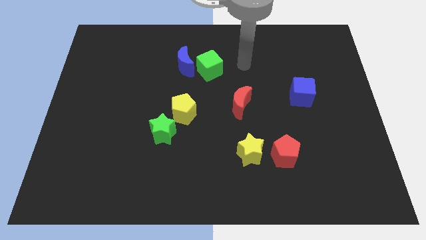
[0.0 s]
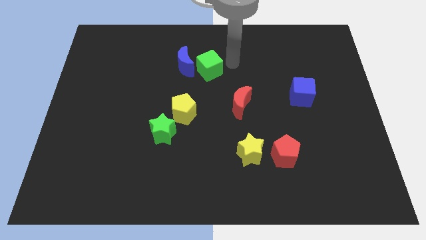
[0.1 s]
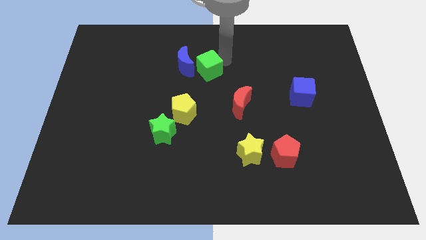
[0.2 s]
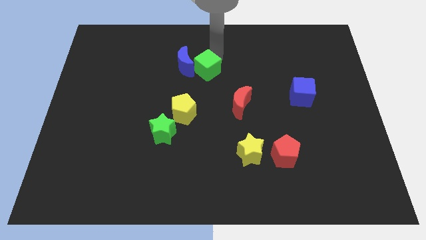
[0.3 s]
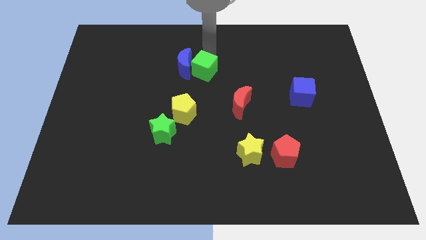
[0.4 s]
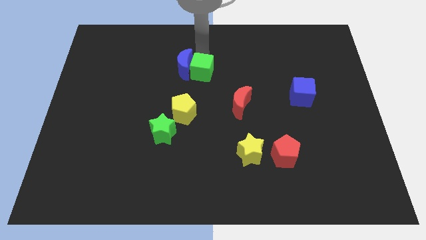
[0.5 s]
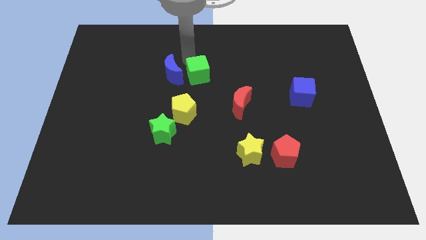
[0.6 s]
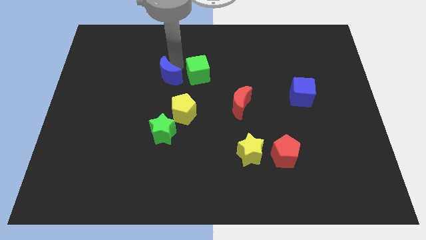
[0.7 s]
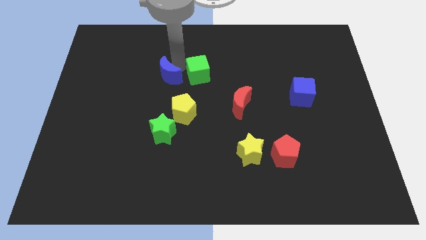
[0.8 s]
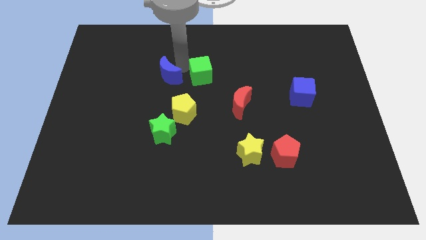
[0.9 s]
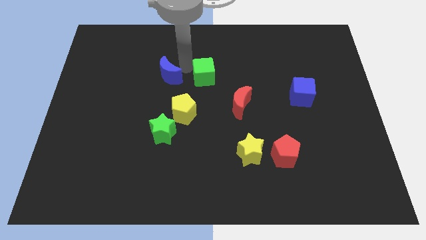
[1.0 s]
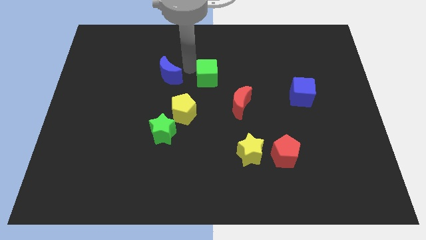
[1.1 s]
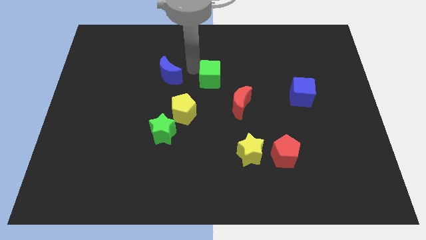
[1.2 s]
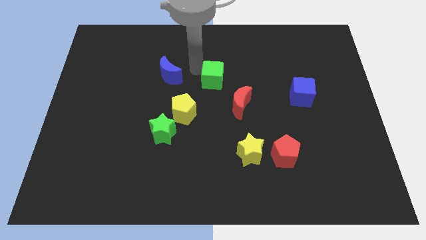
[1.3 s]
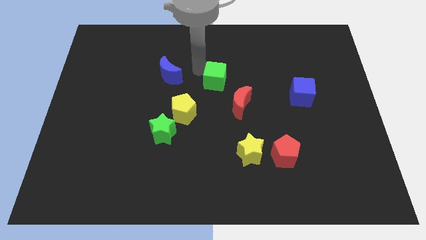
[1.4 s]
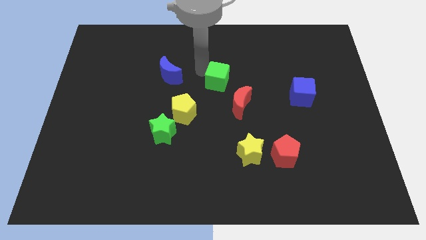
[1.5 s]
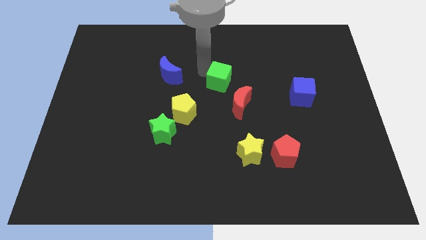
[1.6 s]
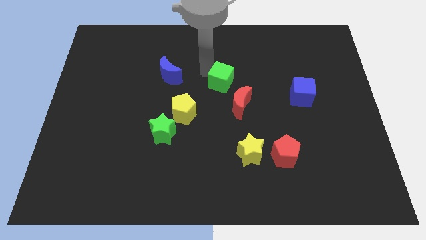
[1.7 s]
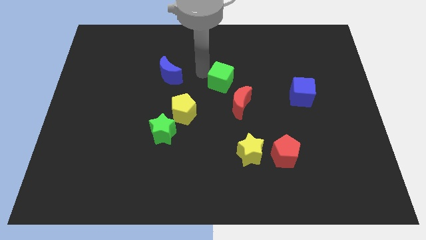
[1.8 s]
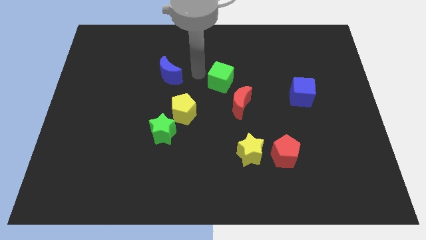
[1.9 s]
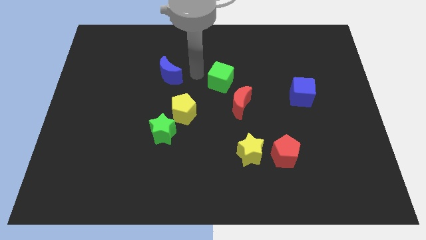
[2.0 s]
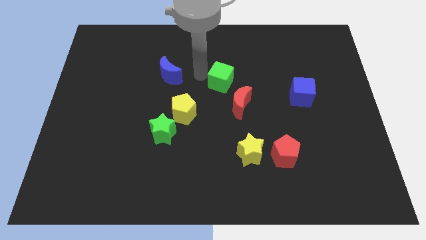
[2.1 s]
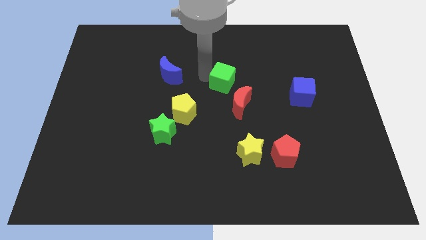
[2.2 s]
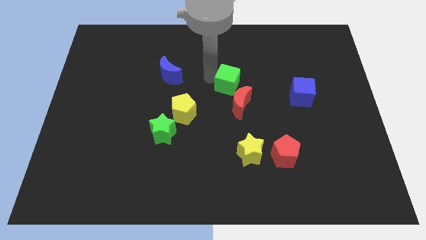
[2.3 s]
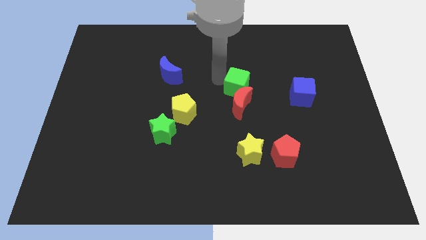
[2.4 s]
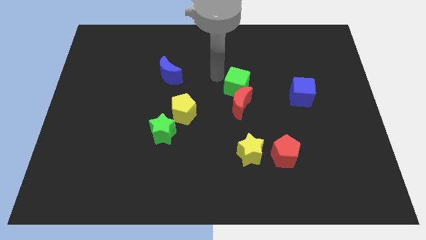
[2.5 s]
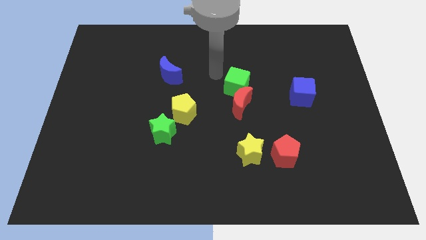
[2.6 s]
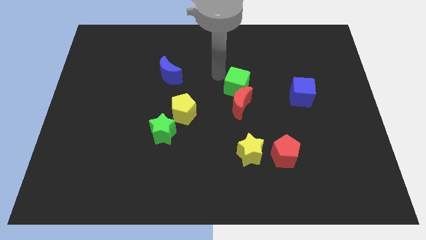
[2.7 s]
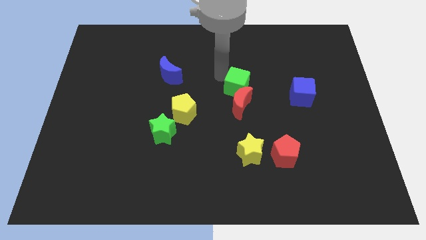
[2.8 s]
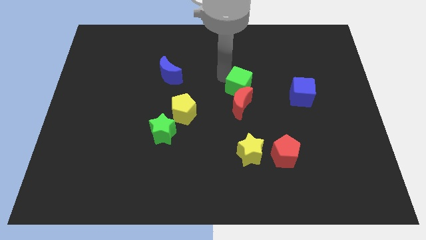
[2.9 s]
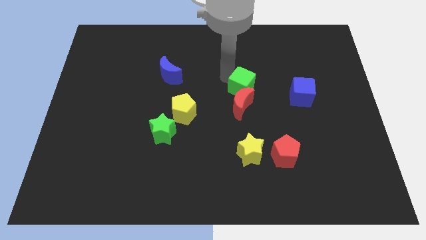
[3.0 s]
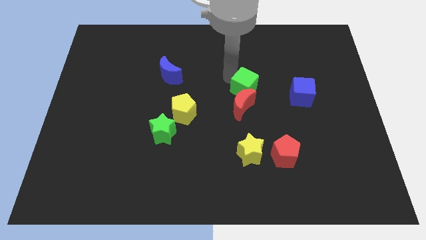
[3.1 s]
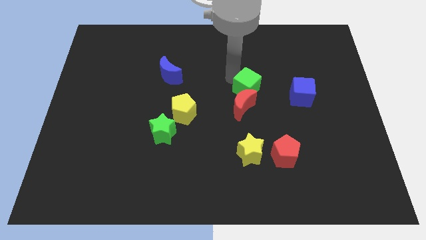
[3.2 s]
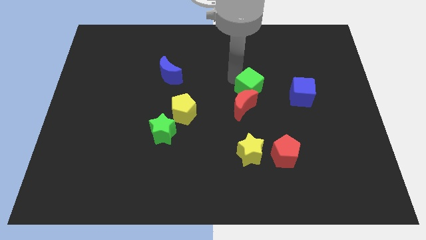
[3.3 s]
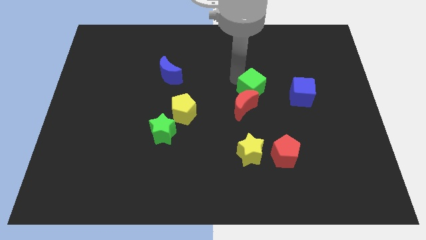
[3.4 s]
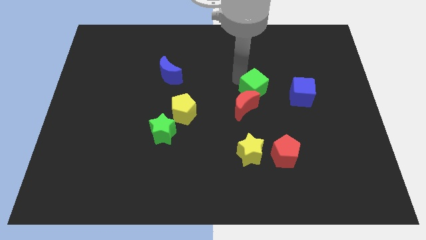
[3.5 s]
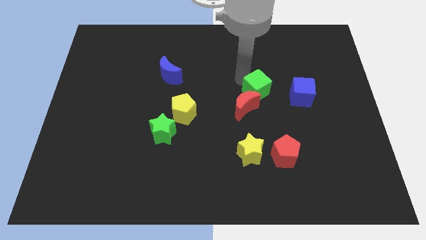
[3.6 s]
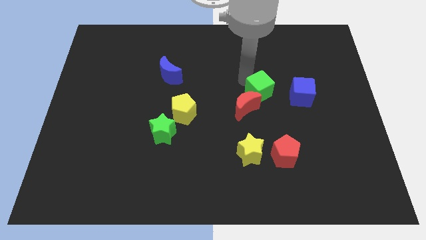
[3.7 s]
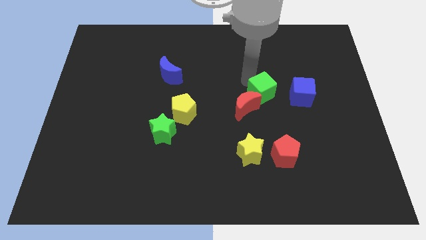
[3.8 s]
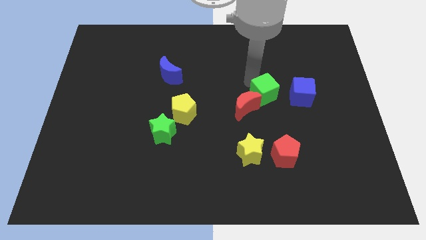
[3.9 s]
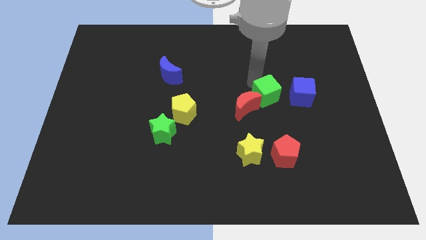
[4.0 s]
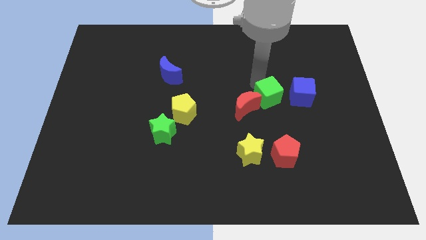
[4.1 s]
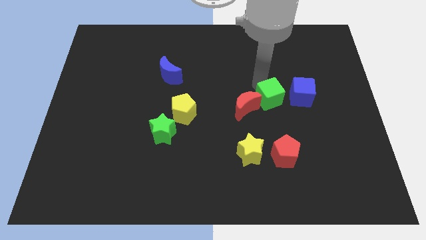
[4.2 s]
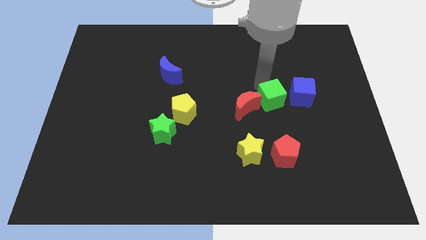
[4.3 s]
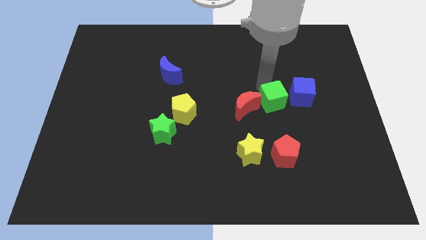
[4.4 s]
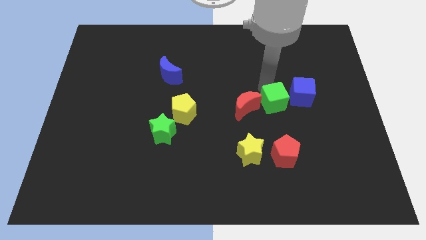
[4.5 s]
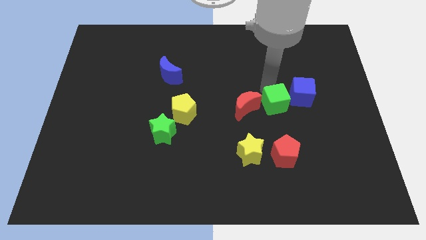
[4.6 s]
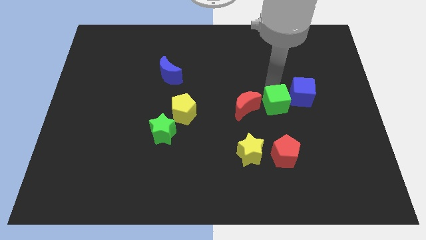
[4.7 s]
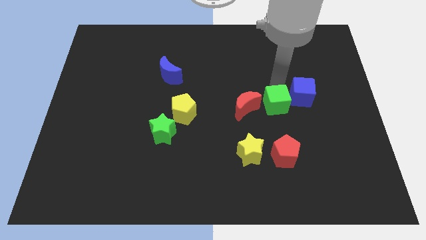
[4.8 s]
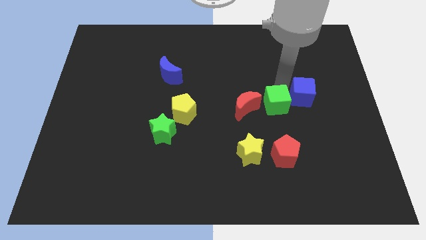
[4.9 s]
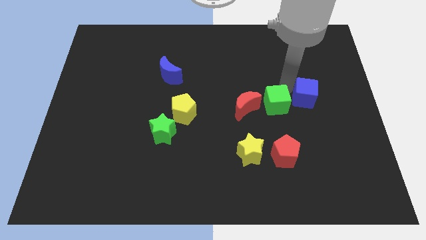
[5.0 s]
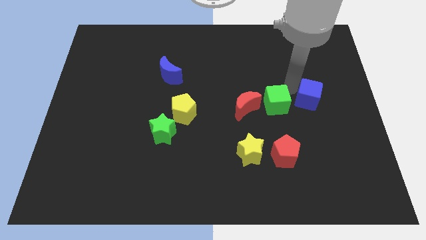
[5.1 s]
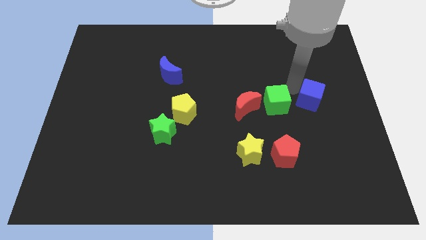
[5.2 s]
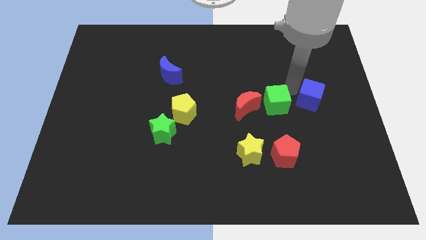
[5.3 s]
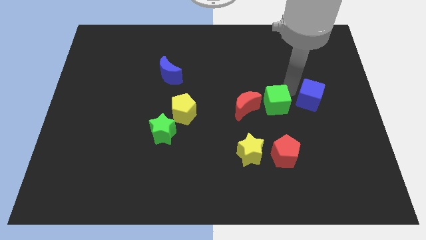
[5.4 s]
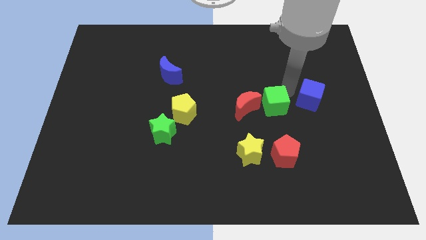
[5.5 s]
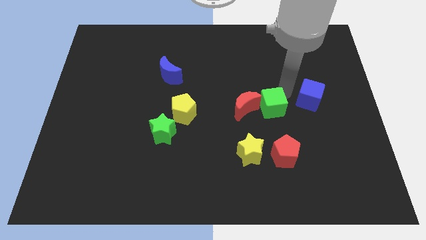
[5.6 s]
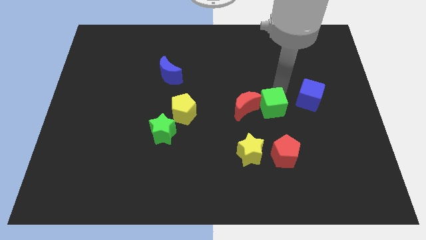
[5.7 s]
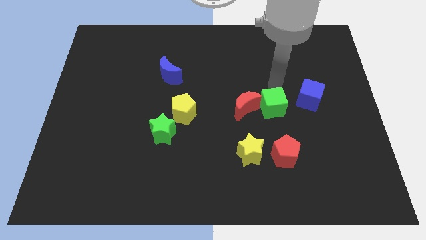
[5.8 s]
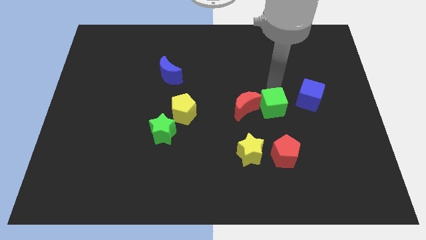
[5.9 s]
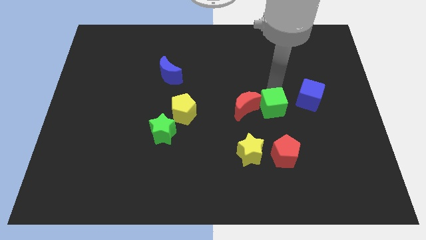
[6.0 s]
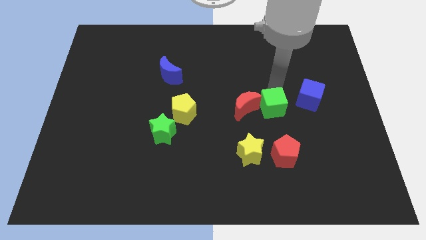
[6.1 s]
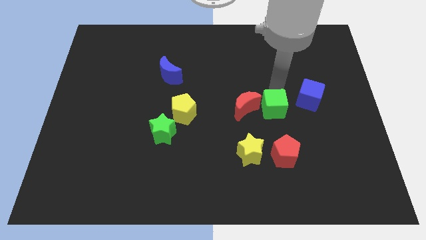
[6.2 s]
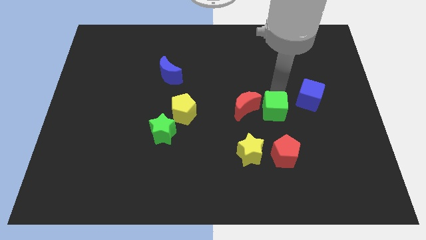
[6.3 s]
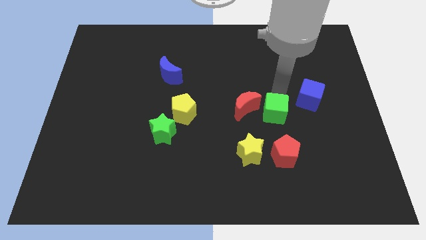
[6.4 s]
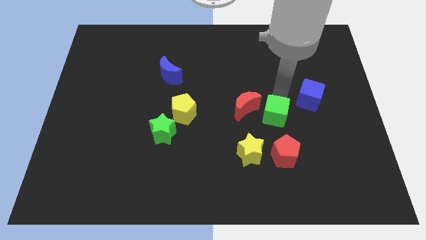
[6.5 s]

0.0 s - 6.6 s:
slide the green cube to the top right side of the yellow star

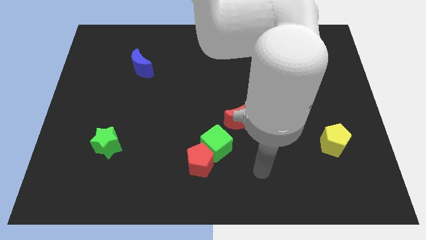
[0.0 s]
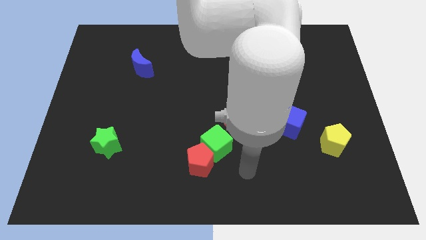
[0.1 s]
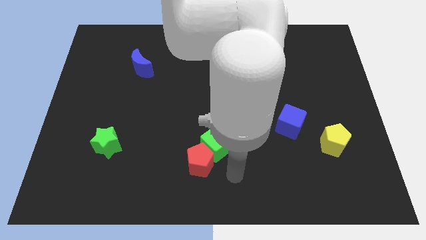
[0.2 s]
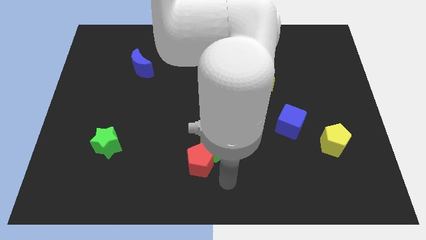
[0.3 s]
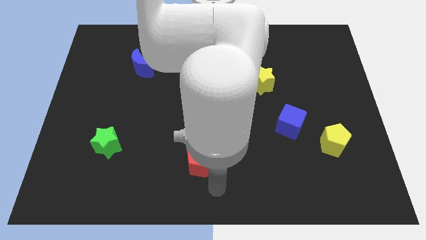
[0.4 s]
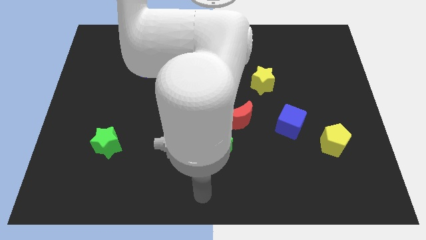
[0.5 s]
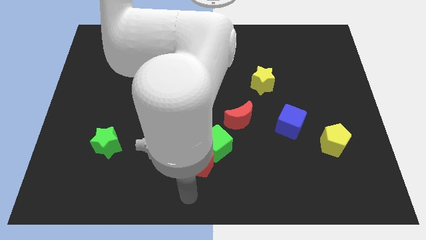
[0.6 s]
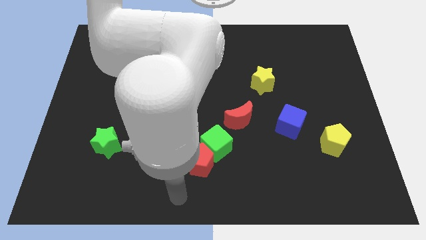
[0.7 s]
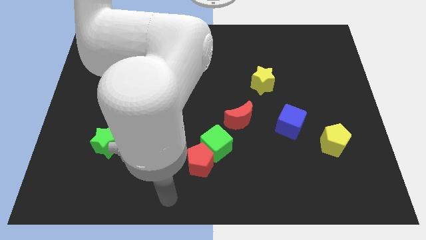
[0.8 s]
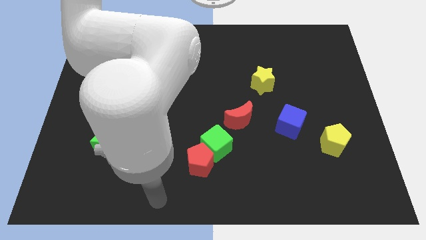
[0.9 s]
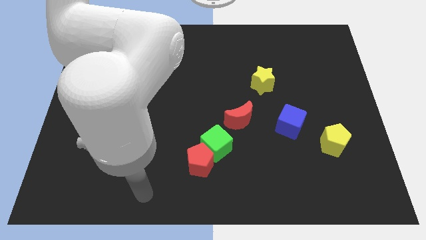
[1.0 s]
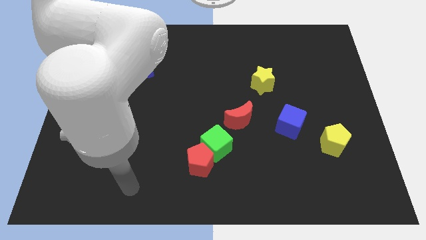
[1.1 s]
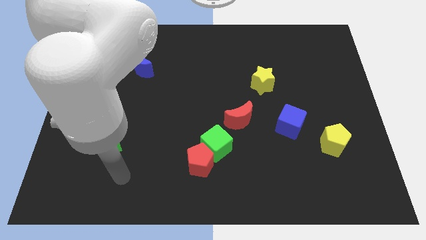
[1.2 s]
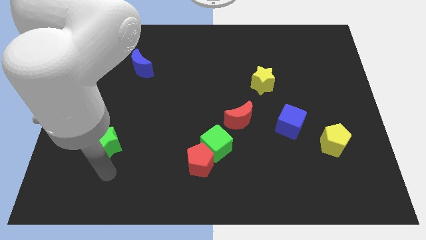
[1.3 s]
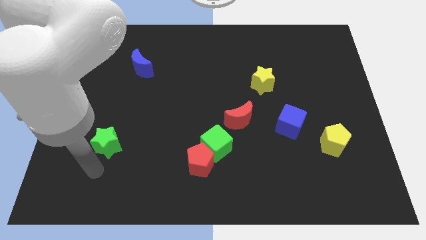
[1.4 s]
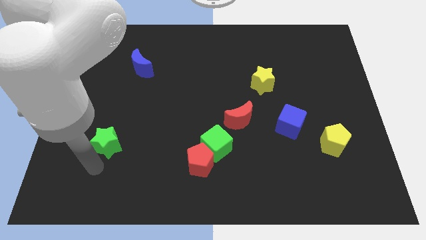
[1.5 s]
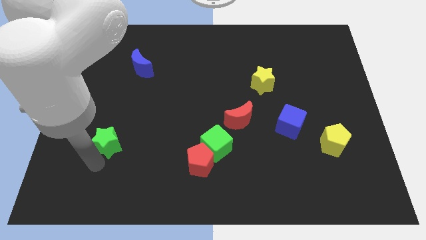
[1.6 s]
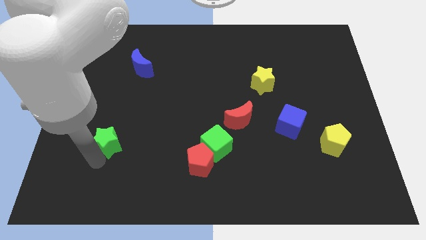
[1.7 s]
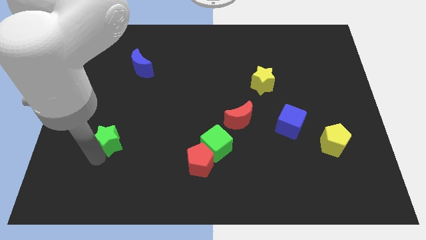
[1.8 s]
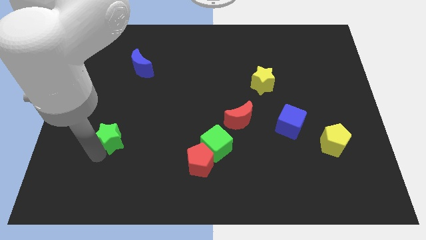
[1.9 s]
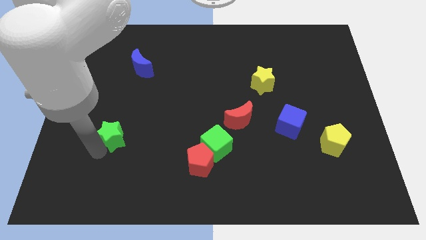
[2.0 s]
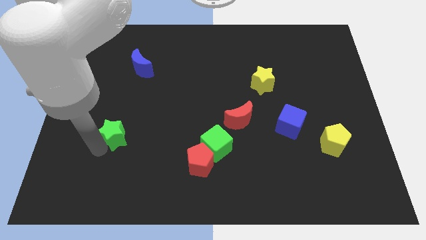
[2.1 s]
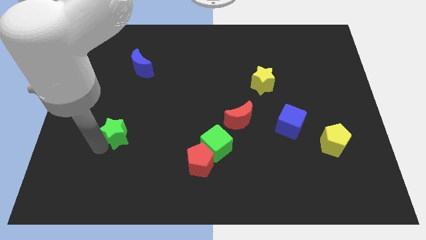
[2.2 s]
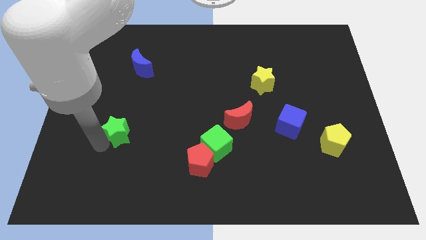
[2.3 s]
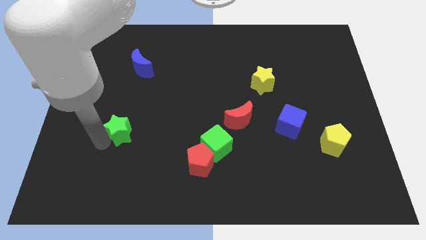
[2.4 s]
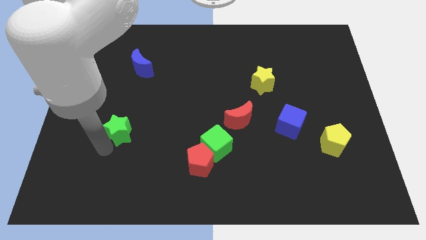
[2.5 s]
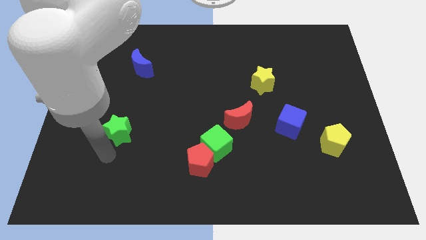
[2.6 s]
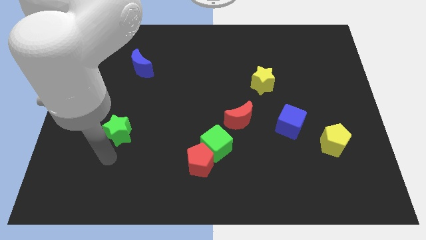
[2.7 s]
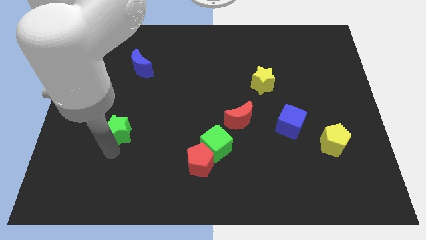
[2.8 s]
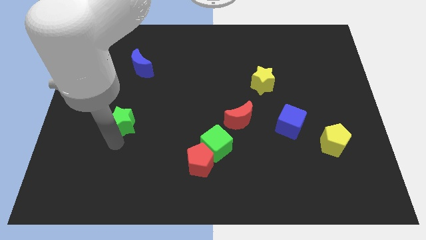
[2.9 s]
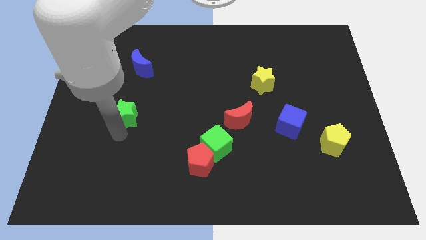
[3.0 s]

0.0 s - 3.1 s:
put the green star to the bottom side of the blue moon
